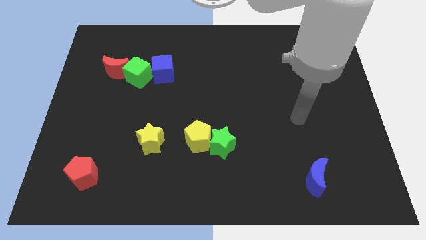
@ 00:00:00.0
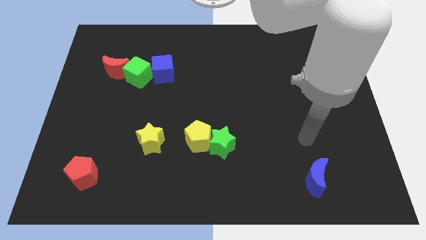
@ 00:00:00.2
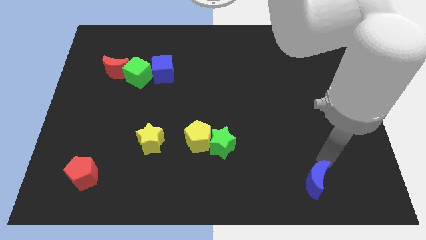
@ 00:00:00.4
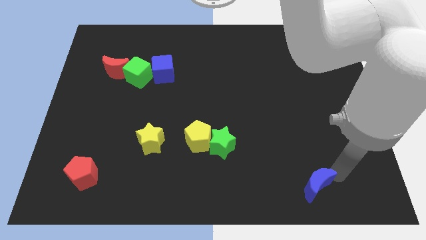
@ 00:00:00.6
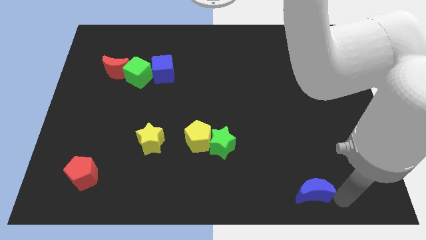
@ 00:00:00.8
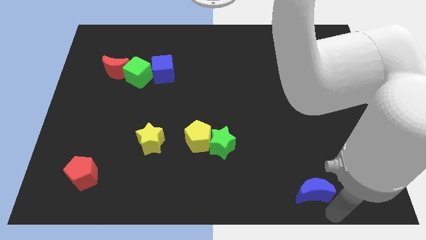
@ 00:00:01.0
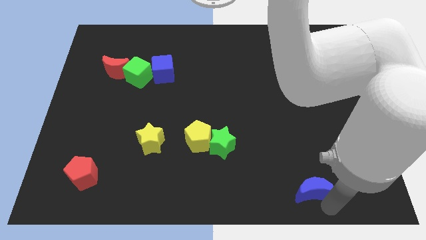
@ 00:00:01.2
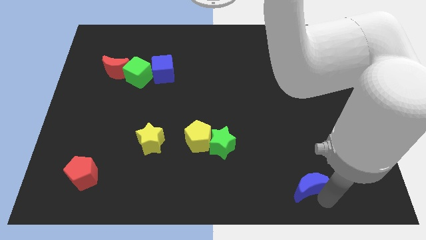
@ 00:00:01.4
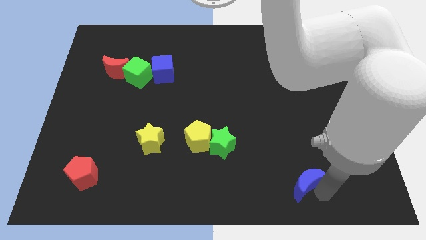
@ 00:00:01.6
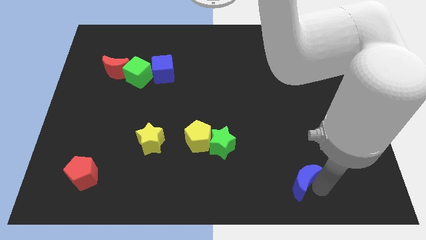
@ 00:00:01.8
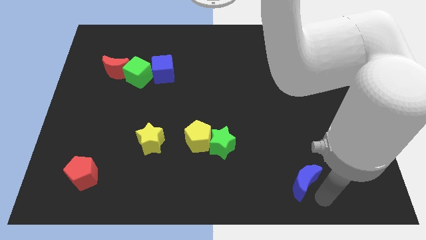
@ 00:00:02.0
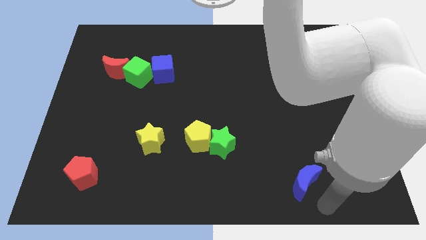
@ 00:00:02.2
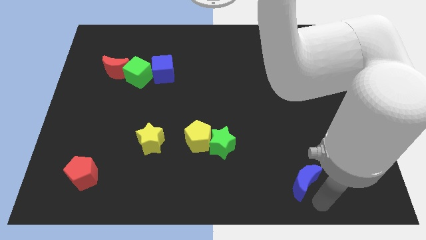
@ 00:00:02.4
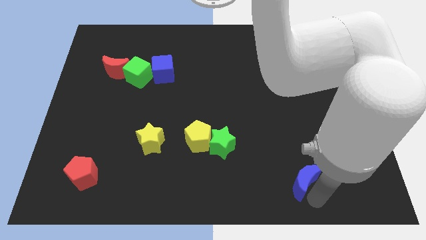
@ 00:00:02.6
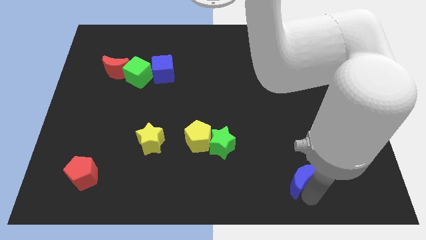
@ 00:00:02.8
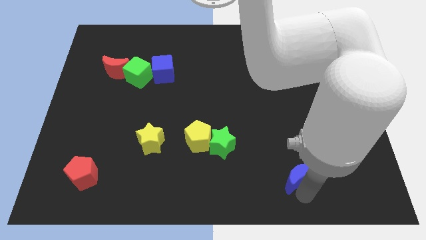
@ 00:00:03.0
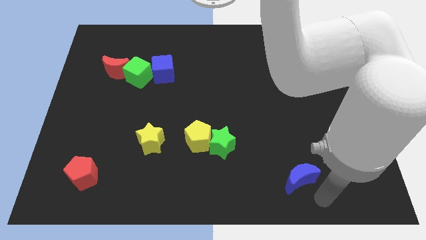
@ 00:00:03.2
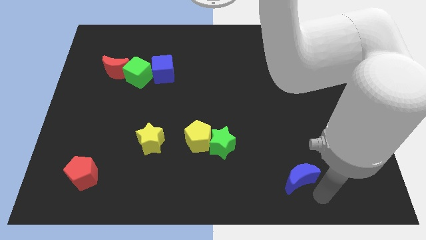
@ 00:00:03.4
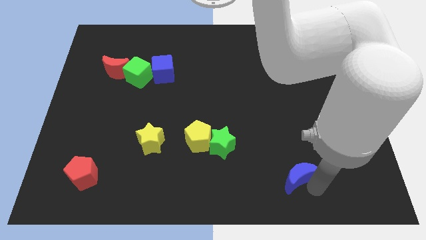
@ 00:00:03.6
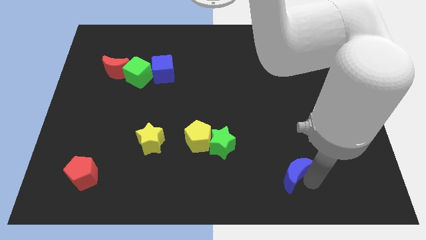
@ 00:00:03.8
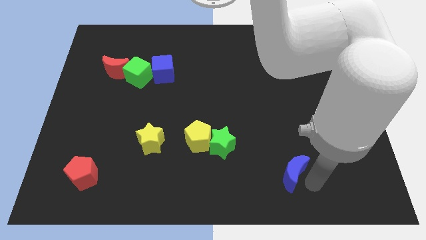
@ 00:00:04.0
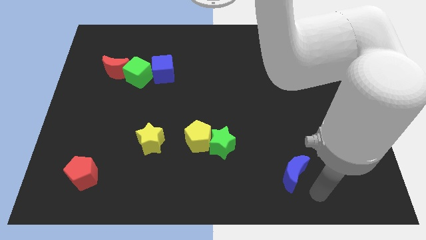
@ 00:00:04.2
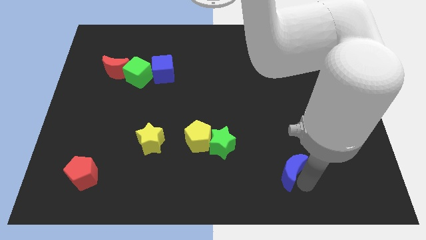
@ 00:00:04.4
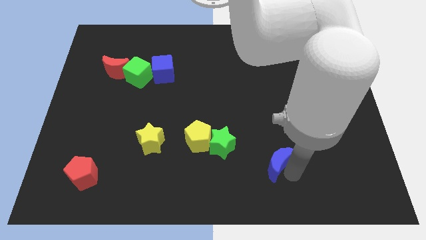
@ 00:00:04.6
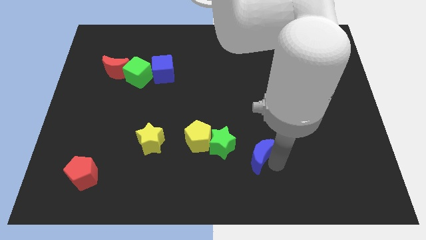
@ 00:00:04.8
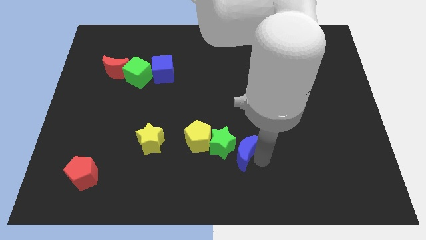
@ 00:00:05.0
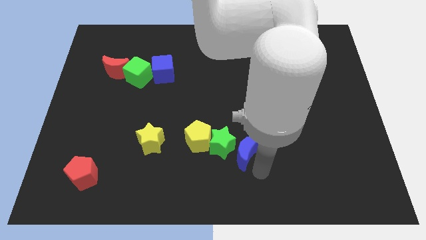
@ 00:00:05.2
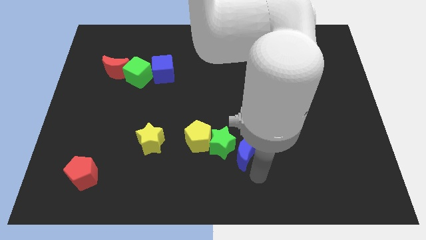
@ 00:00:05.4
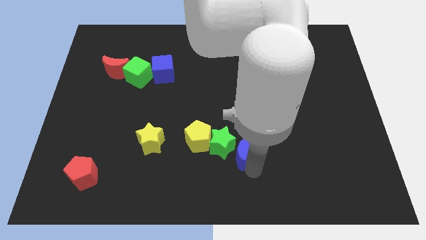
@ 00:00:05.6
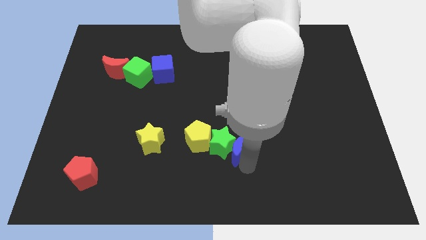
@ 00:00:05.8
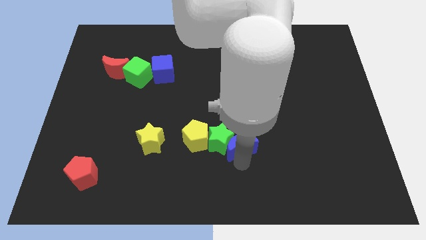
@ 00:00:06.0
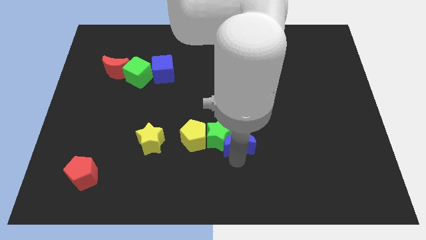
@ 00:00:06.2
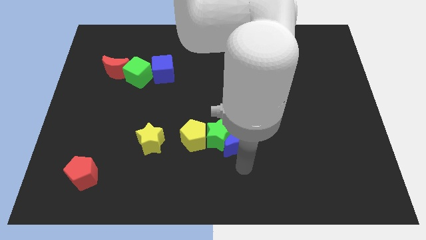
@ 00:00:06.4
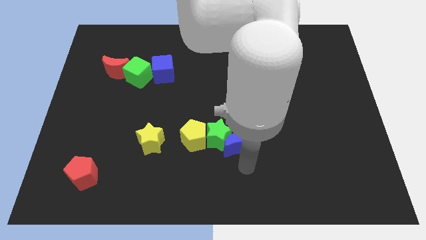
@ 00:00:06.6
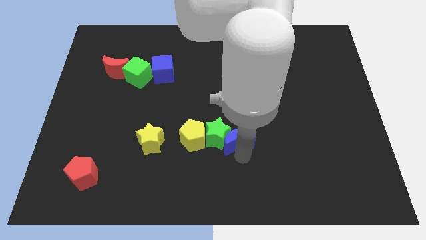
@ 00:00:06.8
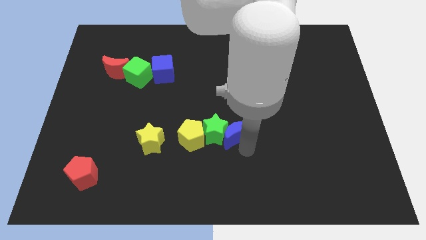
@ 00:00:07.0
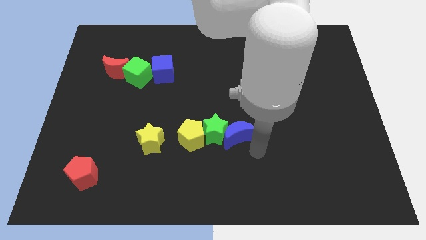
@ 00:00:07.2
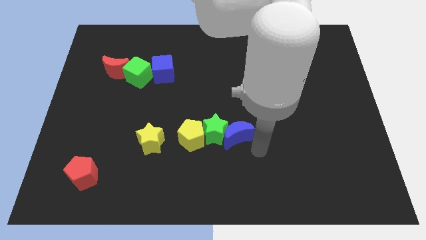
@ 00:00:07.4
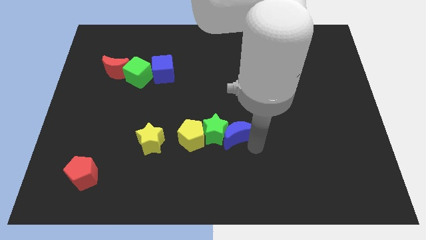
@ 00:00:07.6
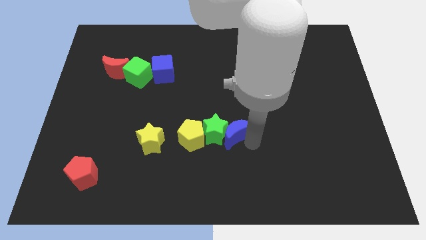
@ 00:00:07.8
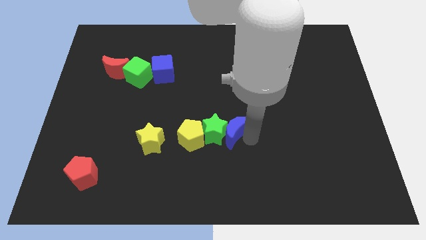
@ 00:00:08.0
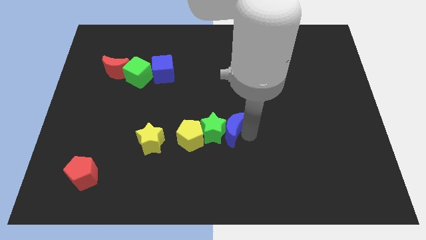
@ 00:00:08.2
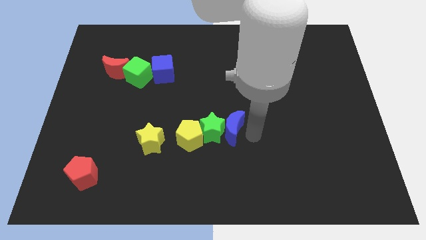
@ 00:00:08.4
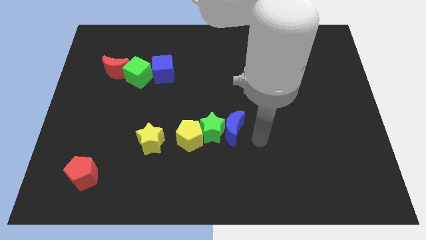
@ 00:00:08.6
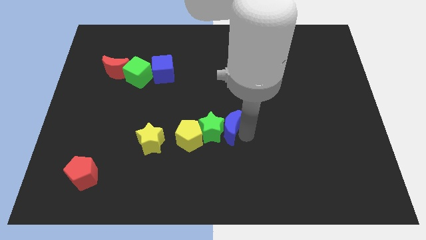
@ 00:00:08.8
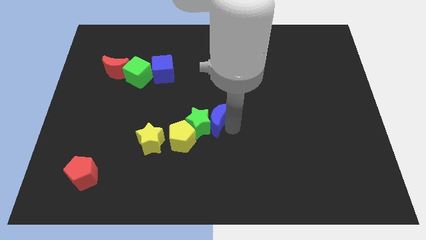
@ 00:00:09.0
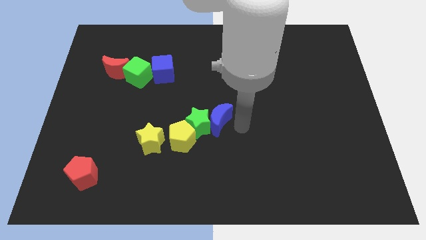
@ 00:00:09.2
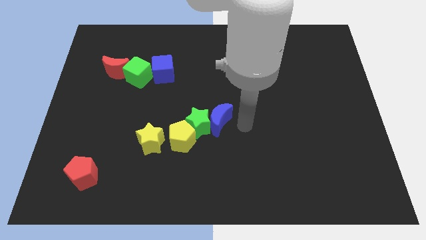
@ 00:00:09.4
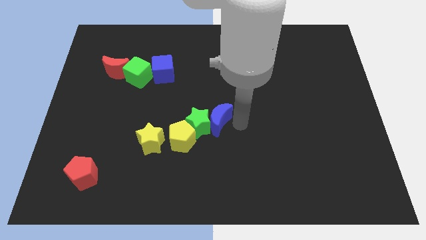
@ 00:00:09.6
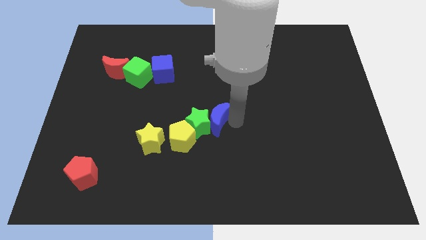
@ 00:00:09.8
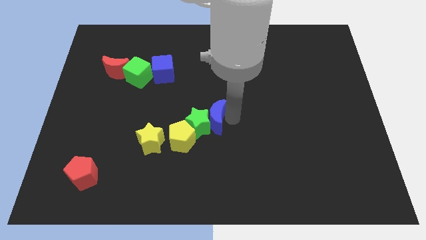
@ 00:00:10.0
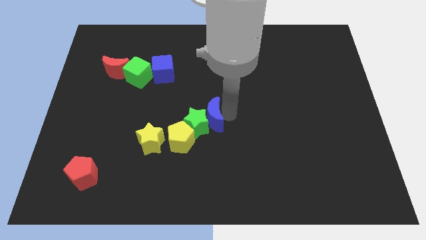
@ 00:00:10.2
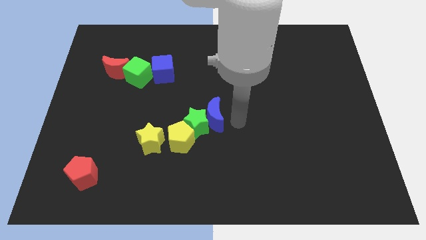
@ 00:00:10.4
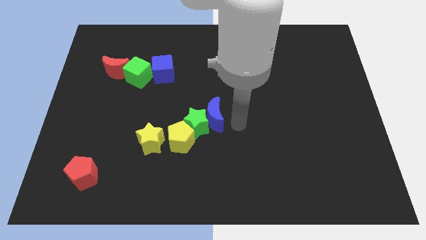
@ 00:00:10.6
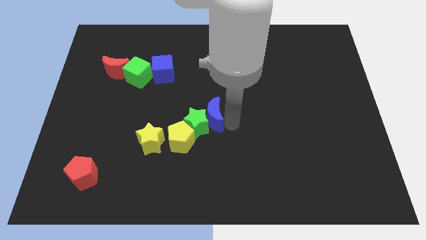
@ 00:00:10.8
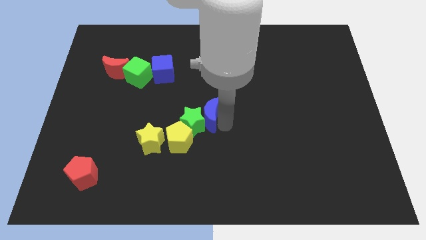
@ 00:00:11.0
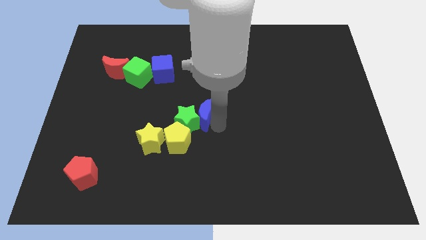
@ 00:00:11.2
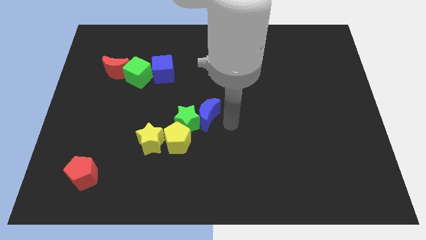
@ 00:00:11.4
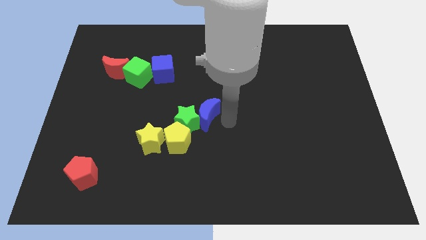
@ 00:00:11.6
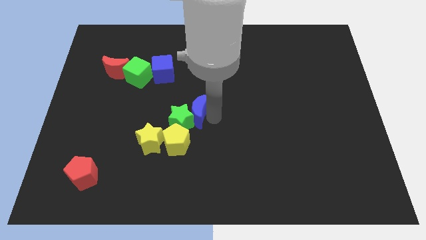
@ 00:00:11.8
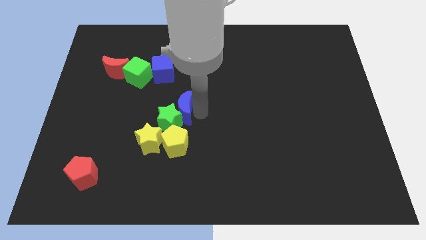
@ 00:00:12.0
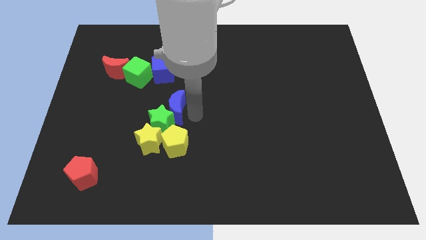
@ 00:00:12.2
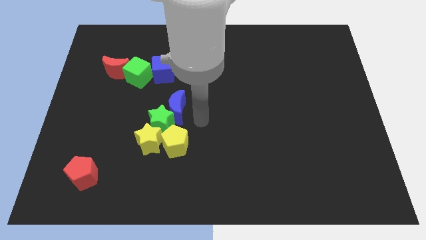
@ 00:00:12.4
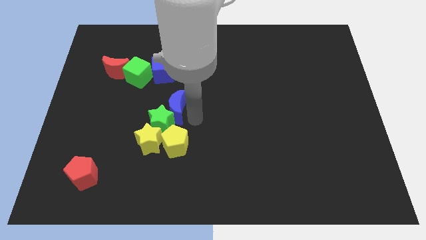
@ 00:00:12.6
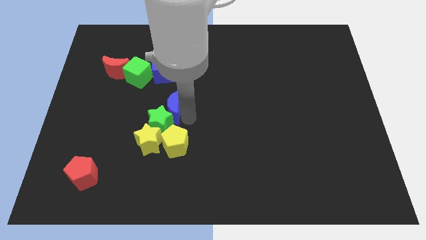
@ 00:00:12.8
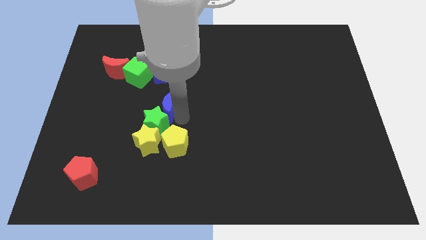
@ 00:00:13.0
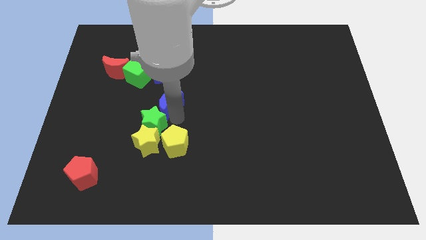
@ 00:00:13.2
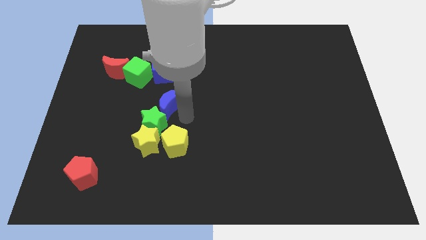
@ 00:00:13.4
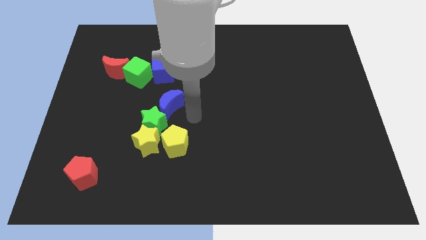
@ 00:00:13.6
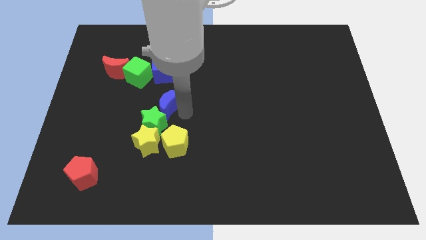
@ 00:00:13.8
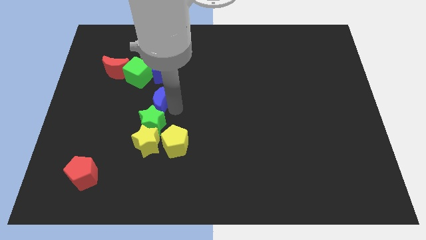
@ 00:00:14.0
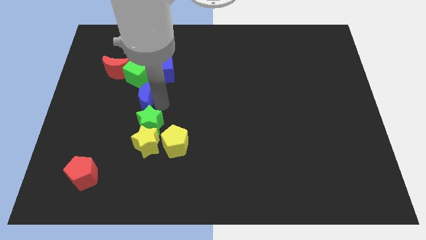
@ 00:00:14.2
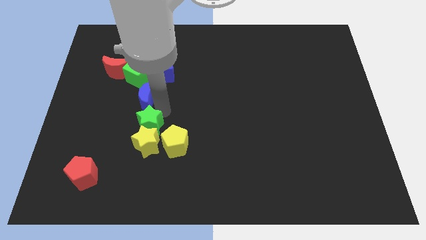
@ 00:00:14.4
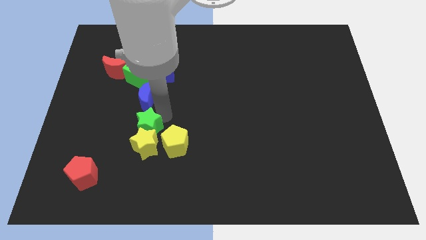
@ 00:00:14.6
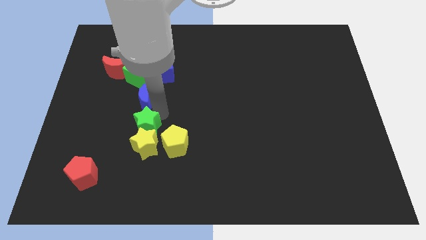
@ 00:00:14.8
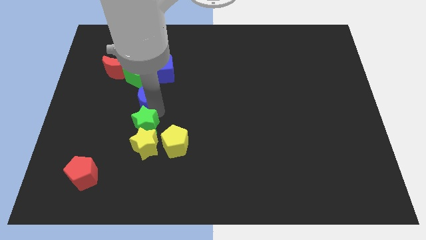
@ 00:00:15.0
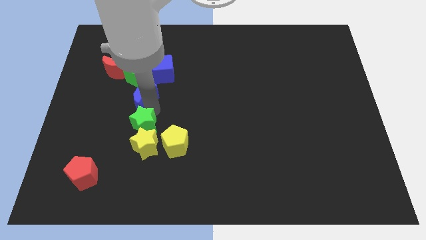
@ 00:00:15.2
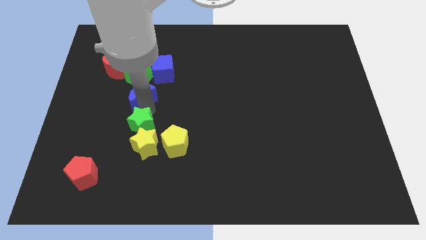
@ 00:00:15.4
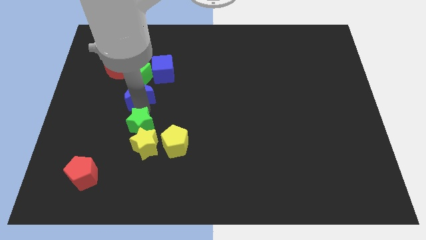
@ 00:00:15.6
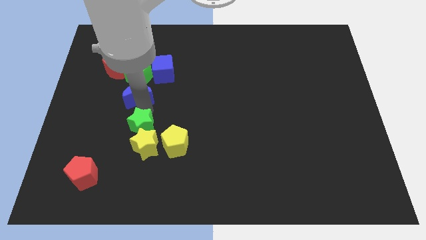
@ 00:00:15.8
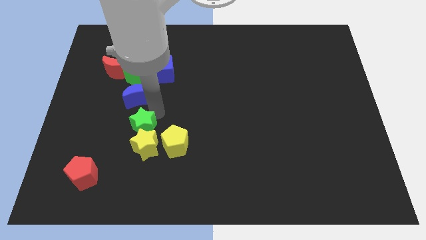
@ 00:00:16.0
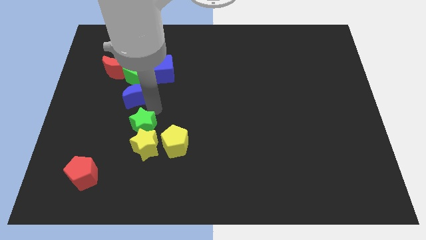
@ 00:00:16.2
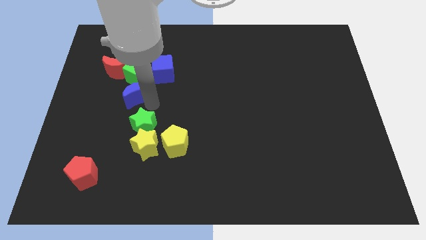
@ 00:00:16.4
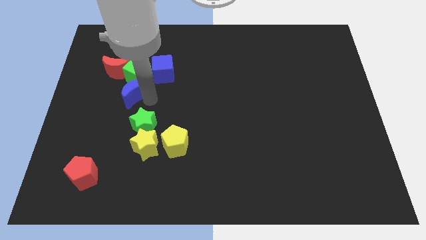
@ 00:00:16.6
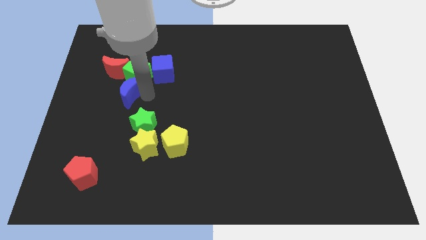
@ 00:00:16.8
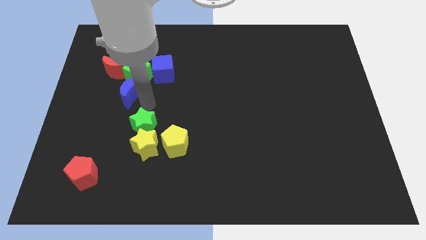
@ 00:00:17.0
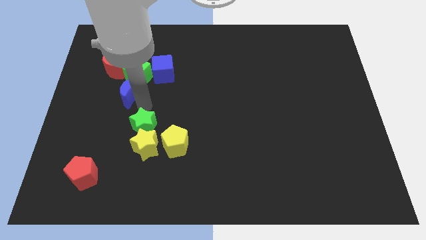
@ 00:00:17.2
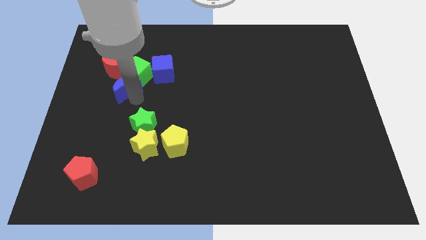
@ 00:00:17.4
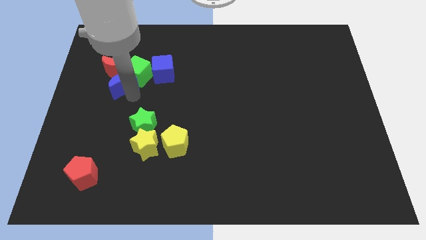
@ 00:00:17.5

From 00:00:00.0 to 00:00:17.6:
slide the blue moon to the red moon
